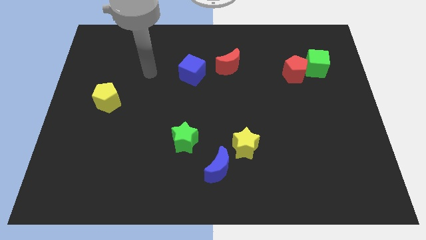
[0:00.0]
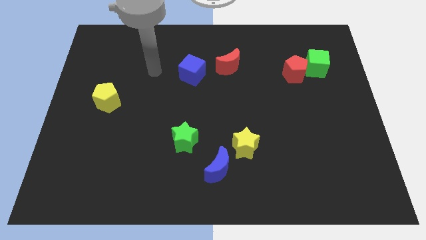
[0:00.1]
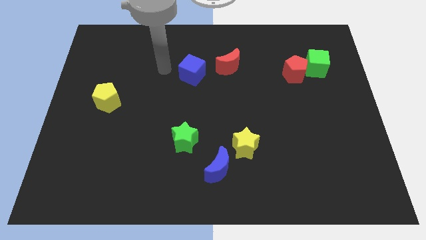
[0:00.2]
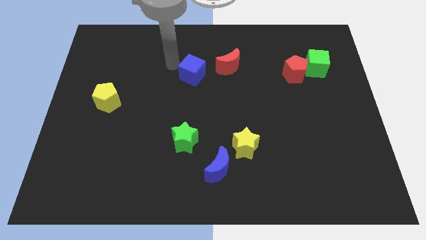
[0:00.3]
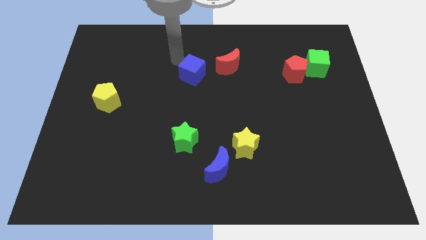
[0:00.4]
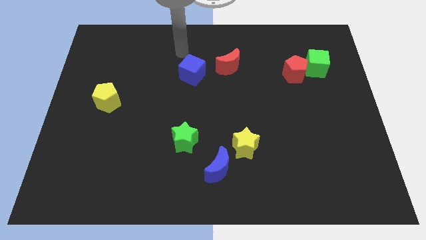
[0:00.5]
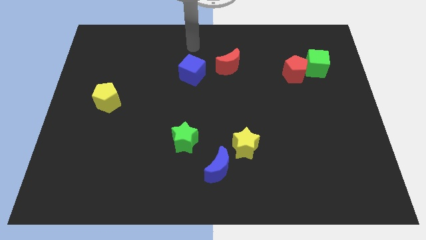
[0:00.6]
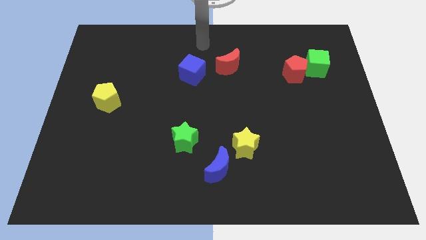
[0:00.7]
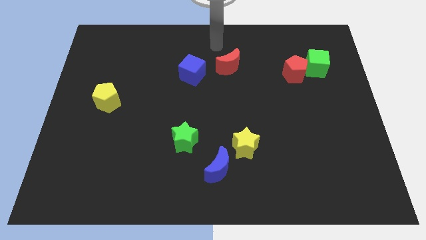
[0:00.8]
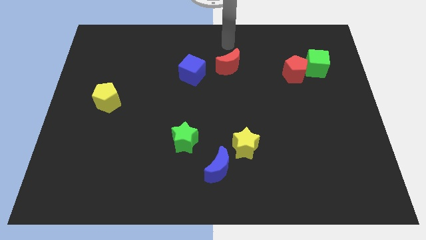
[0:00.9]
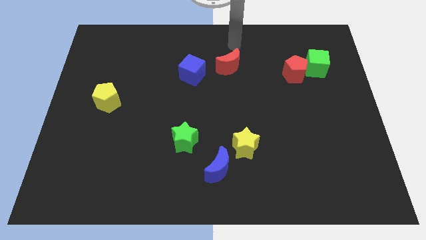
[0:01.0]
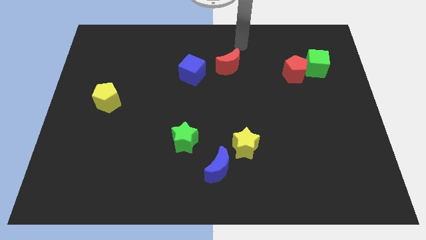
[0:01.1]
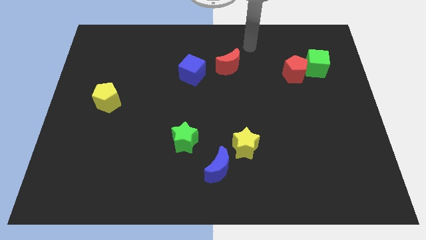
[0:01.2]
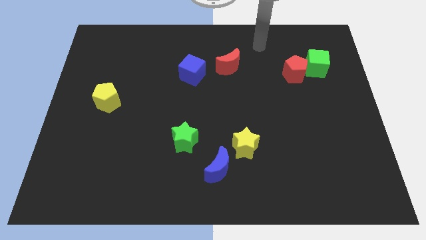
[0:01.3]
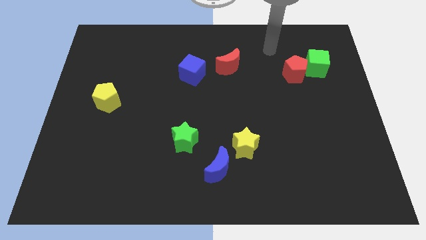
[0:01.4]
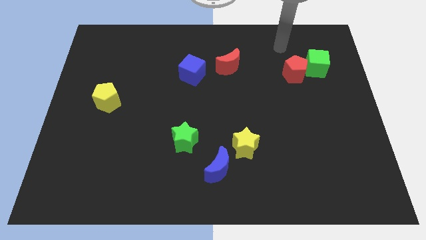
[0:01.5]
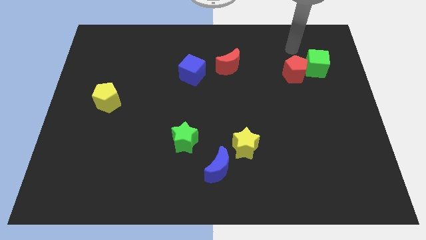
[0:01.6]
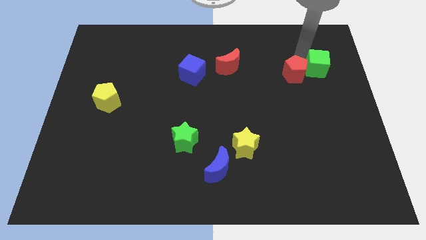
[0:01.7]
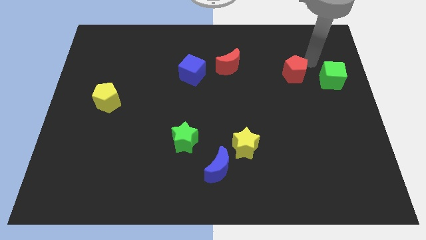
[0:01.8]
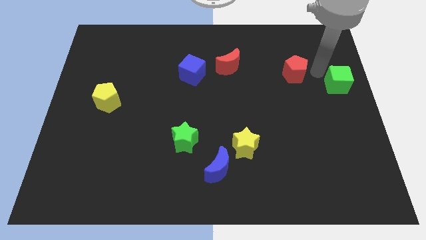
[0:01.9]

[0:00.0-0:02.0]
pull the red pentagon apart from the green cube

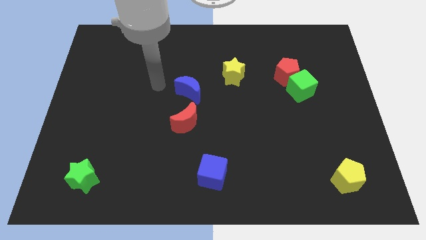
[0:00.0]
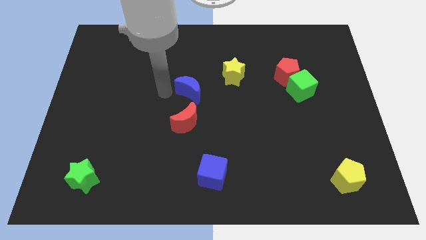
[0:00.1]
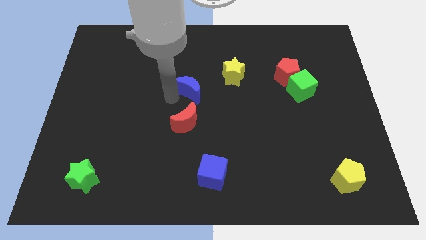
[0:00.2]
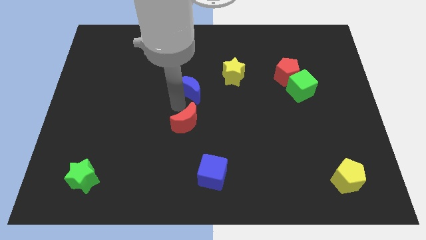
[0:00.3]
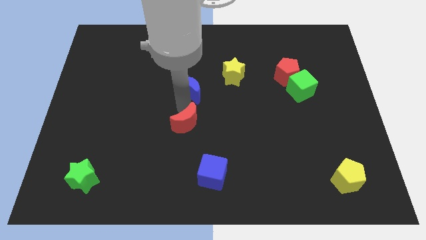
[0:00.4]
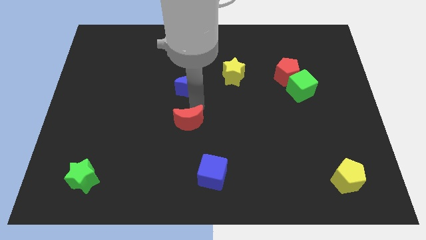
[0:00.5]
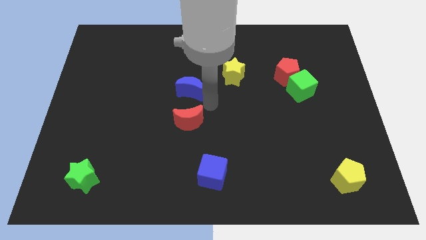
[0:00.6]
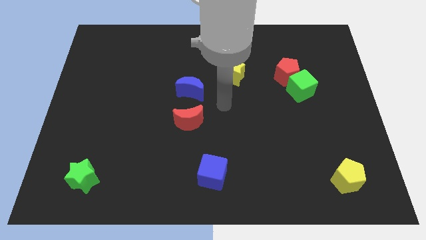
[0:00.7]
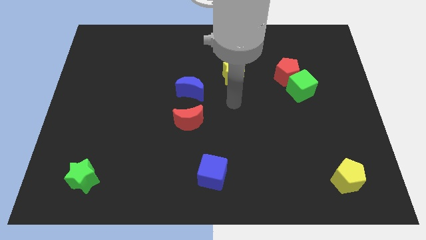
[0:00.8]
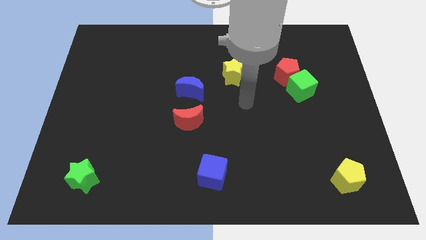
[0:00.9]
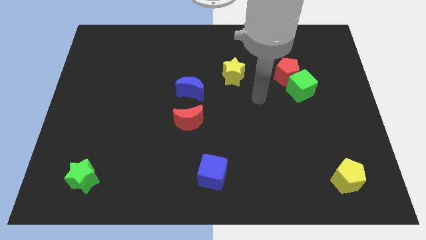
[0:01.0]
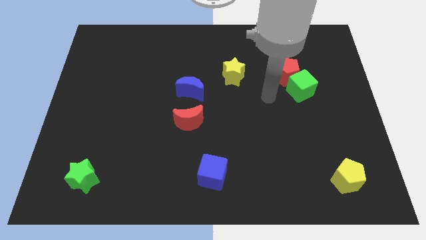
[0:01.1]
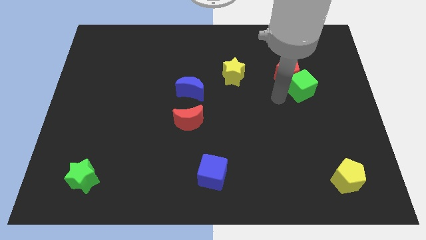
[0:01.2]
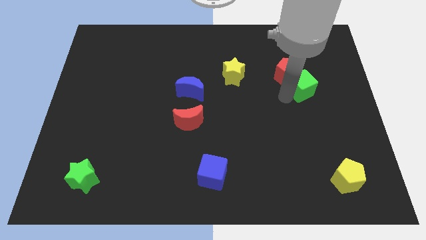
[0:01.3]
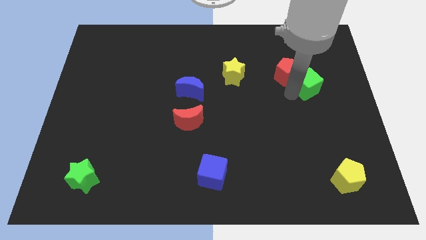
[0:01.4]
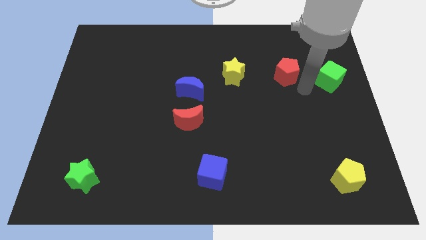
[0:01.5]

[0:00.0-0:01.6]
move the red pentagon away from the green cube

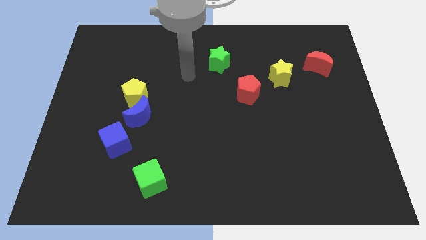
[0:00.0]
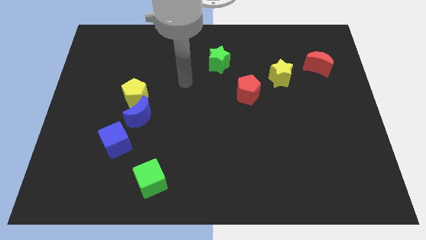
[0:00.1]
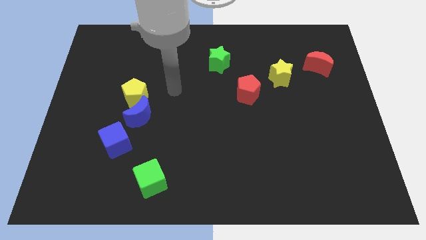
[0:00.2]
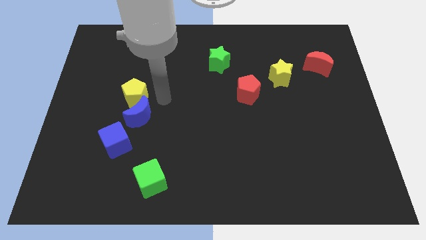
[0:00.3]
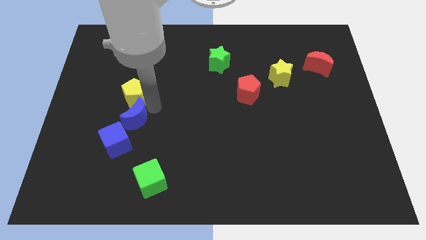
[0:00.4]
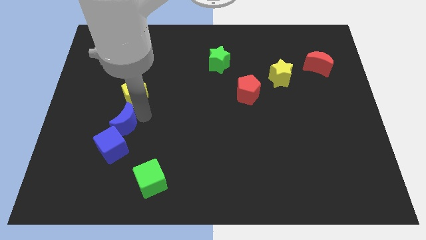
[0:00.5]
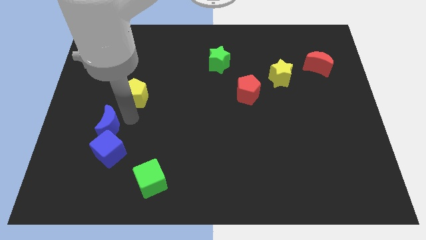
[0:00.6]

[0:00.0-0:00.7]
move the yellow pentagon away from the blue moon

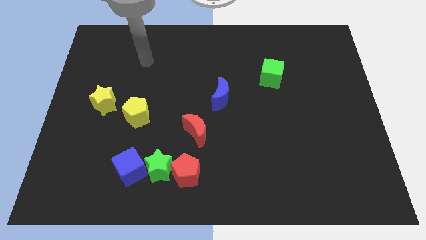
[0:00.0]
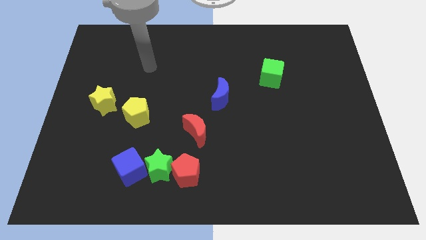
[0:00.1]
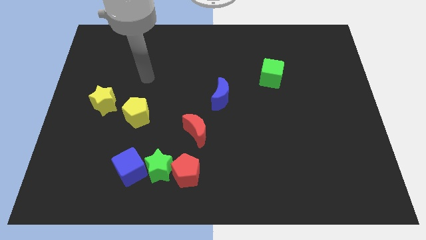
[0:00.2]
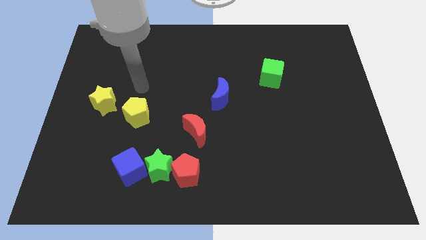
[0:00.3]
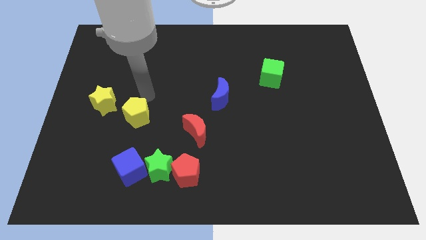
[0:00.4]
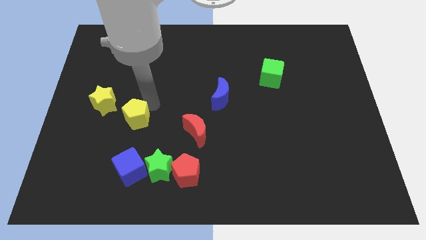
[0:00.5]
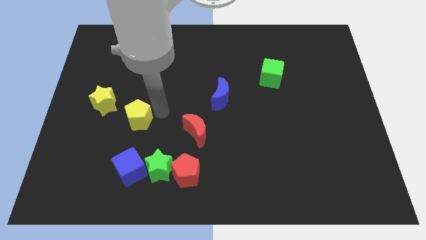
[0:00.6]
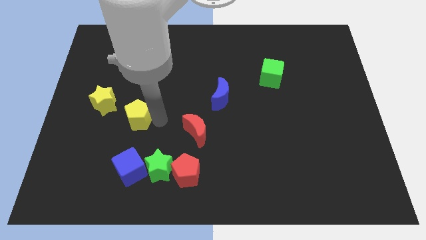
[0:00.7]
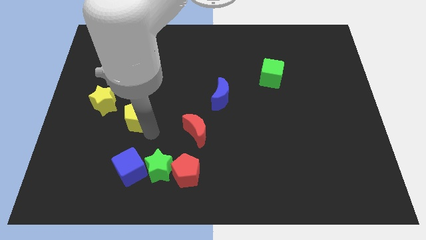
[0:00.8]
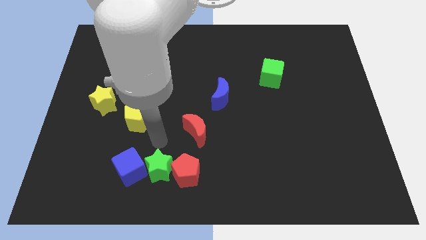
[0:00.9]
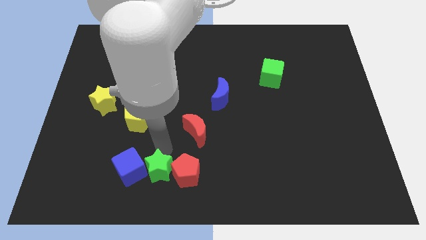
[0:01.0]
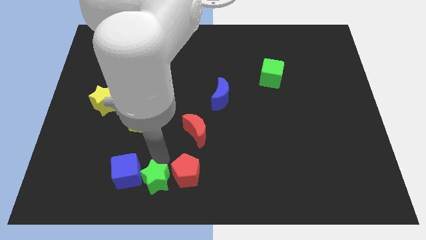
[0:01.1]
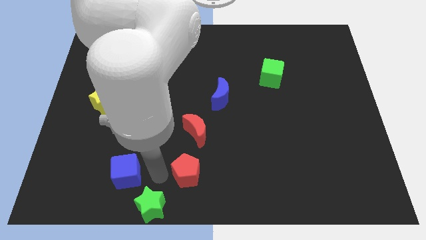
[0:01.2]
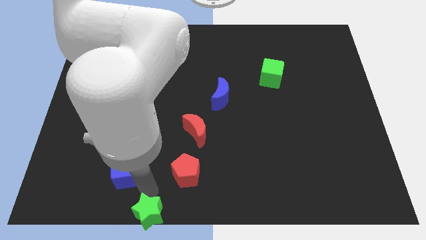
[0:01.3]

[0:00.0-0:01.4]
move the blue cube away from the green star

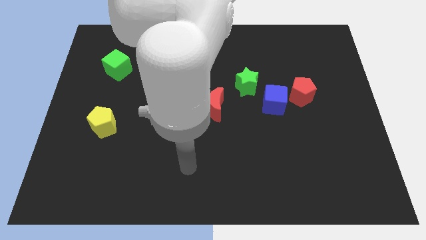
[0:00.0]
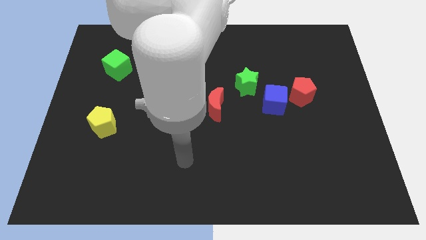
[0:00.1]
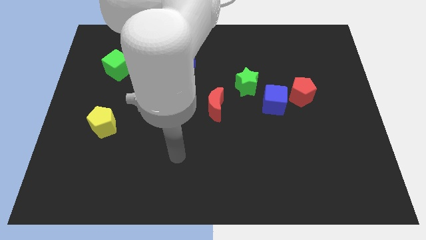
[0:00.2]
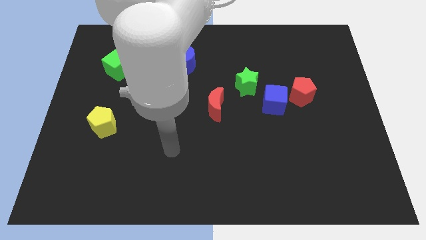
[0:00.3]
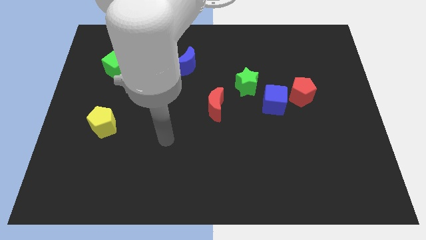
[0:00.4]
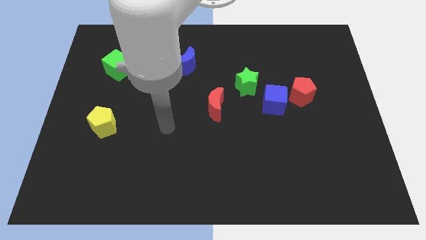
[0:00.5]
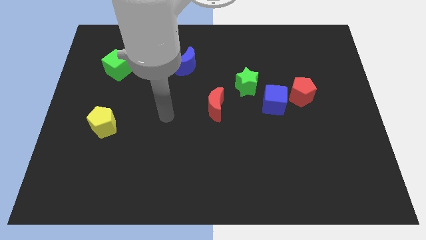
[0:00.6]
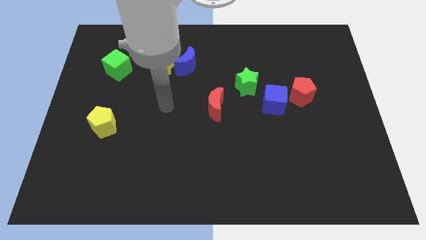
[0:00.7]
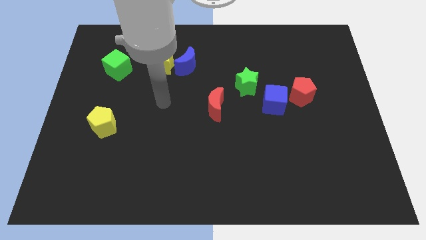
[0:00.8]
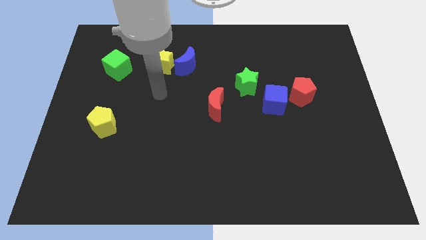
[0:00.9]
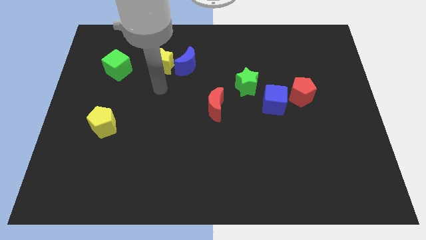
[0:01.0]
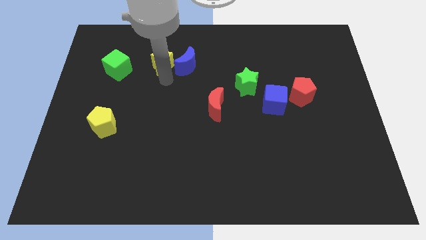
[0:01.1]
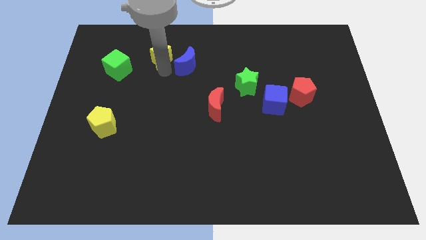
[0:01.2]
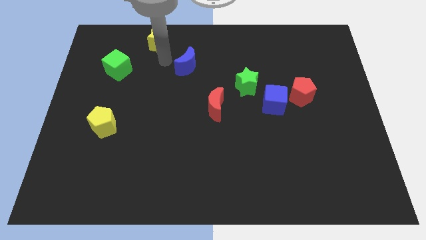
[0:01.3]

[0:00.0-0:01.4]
separate the blue moon from the yellow star

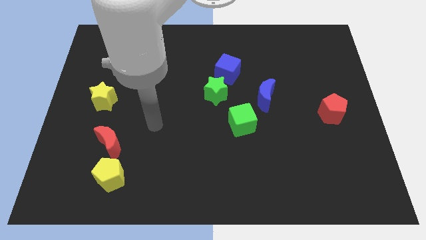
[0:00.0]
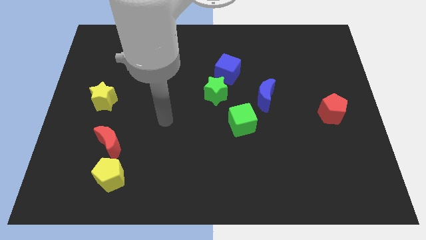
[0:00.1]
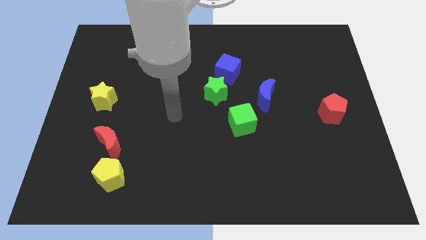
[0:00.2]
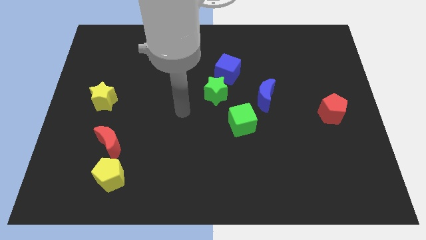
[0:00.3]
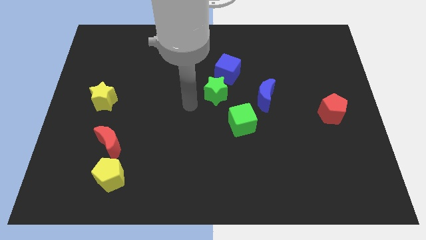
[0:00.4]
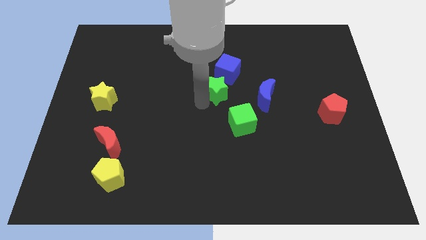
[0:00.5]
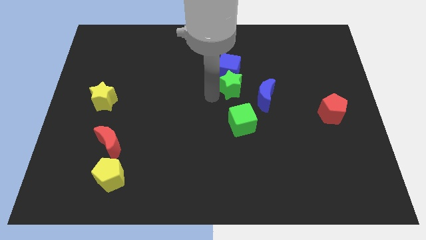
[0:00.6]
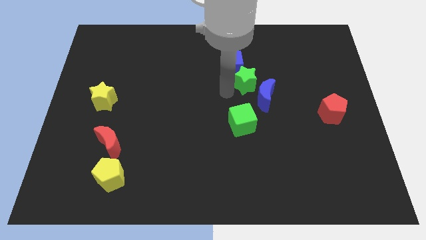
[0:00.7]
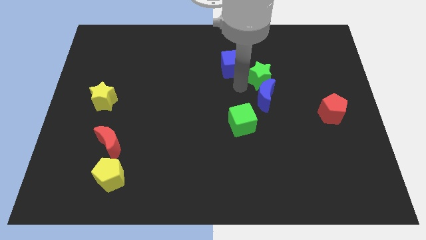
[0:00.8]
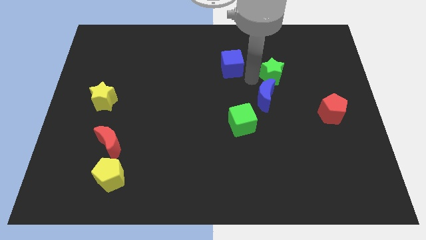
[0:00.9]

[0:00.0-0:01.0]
pull the blue cube apart from the green star

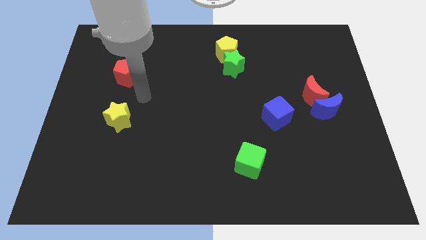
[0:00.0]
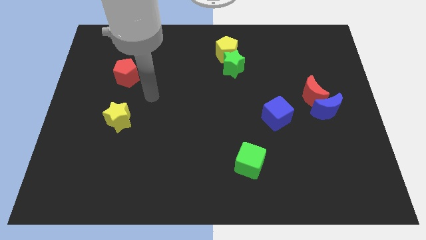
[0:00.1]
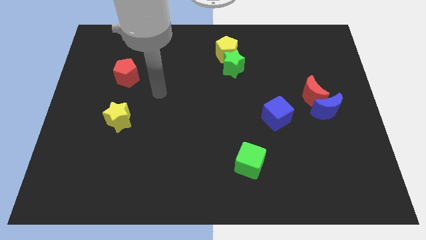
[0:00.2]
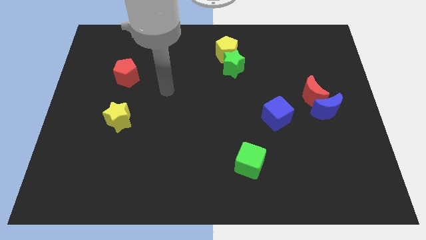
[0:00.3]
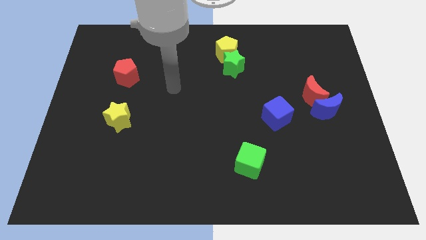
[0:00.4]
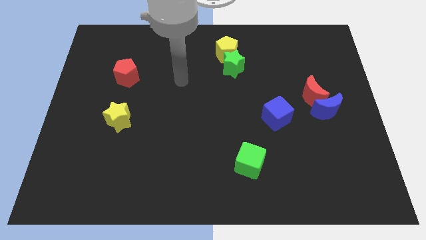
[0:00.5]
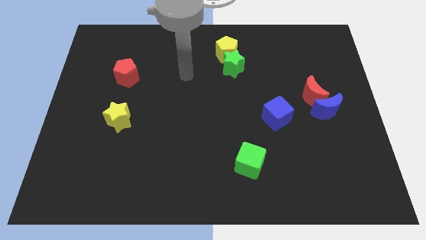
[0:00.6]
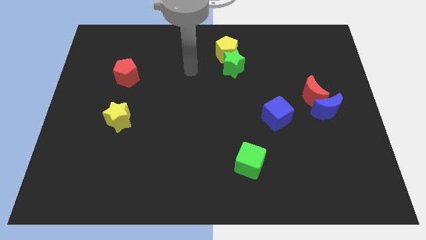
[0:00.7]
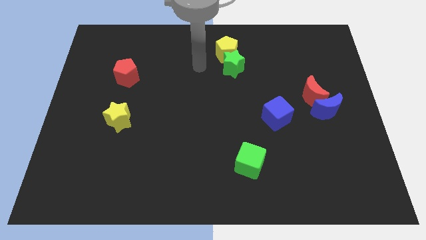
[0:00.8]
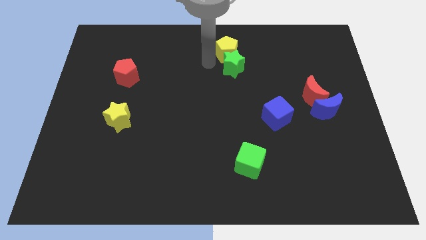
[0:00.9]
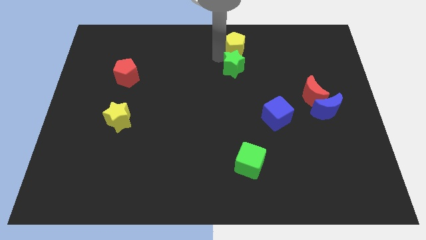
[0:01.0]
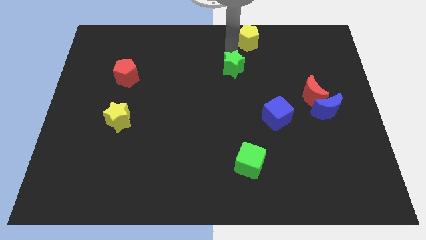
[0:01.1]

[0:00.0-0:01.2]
pull the green star apart from the yellow pentagon
